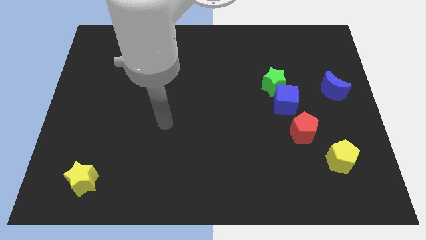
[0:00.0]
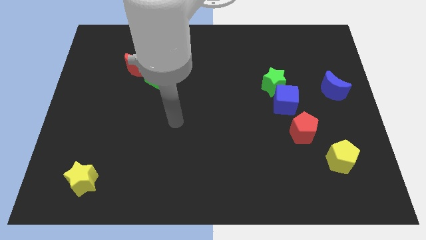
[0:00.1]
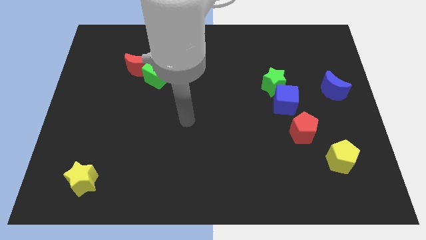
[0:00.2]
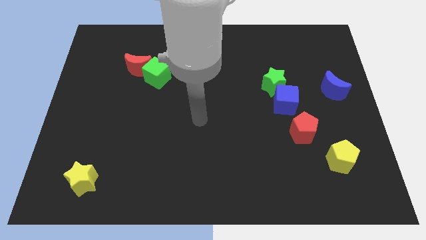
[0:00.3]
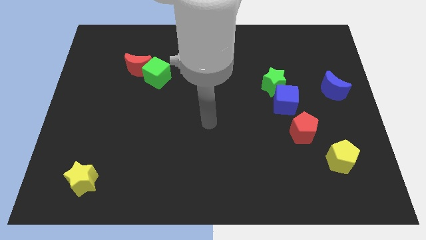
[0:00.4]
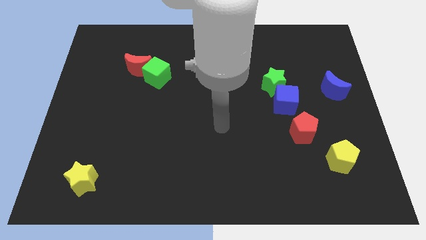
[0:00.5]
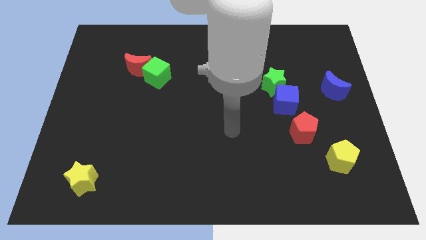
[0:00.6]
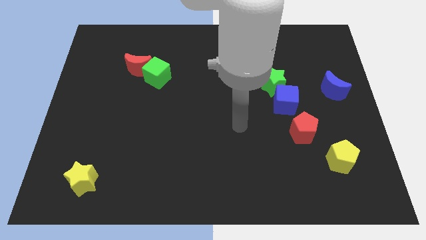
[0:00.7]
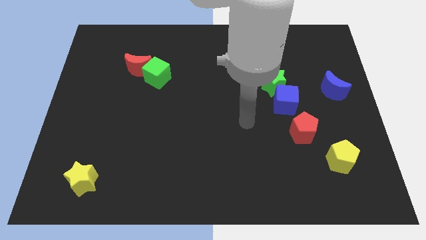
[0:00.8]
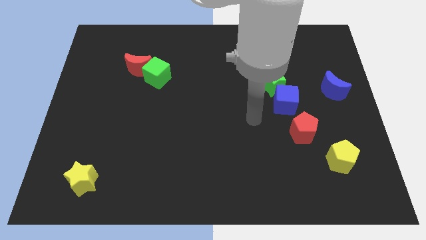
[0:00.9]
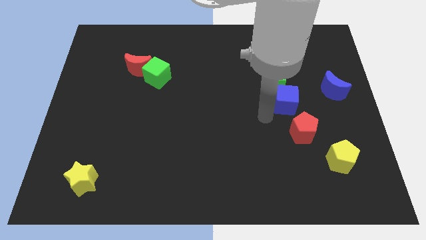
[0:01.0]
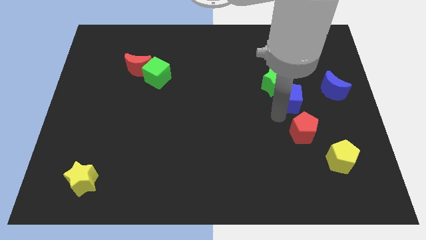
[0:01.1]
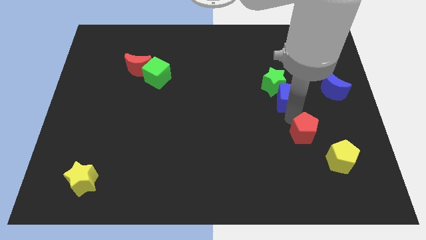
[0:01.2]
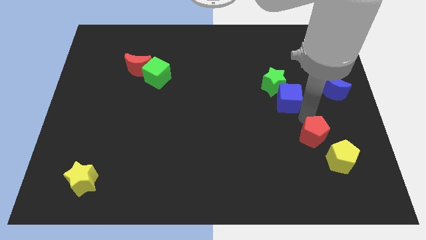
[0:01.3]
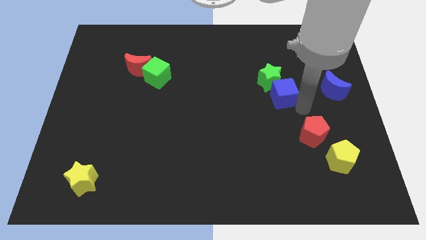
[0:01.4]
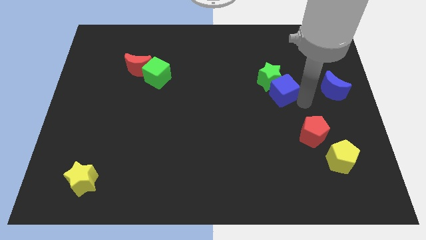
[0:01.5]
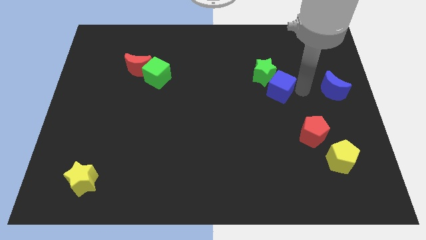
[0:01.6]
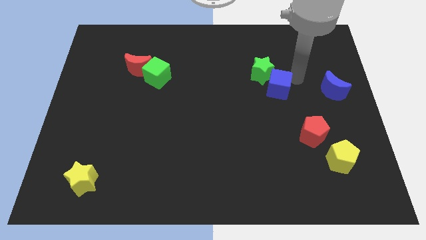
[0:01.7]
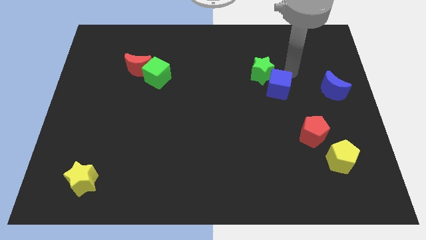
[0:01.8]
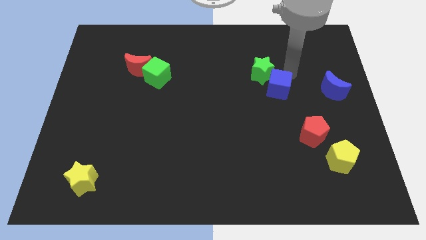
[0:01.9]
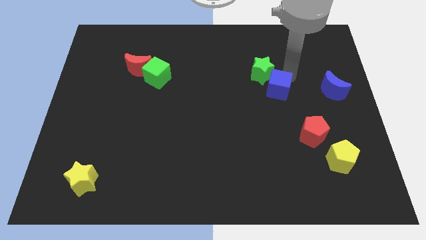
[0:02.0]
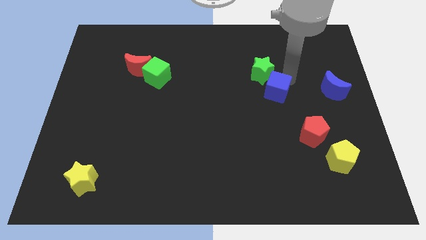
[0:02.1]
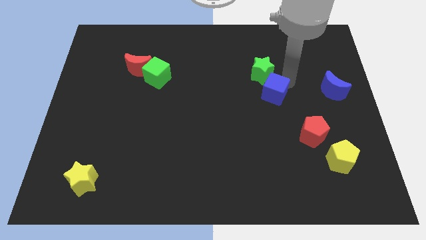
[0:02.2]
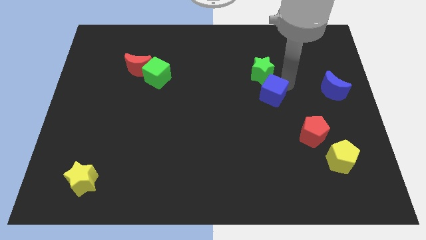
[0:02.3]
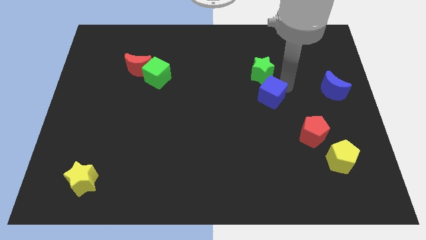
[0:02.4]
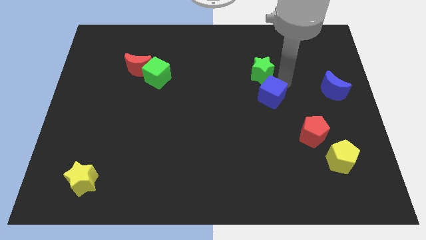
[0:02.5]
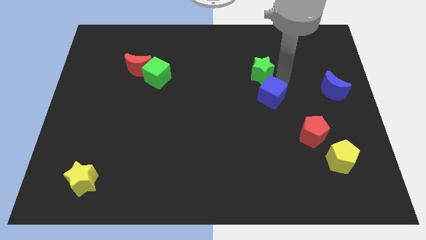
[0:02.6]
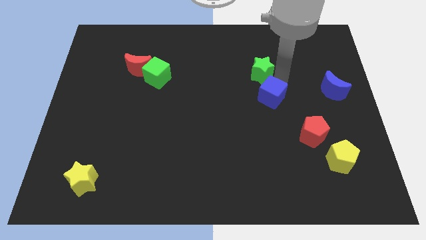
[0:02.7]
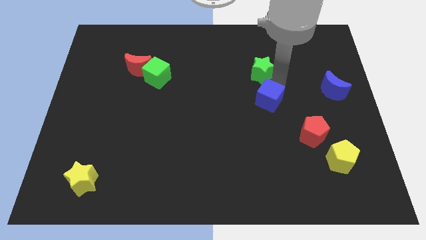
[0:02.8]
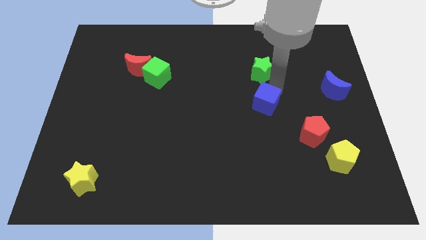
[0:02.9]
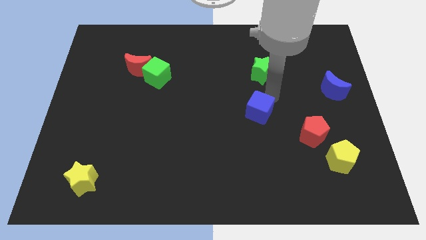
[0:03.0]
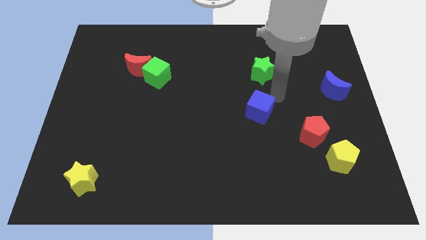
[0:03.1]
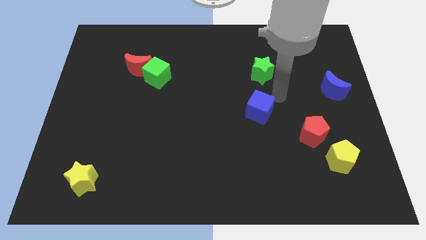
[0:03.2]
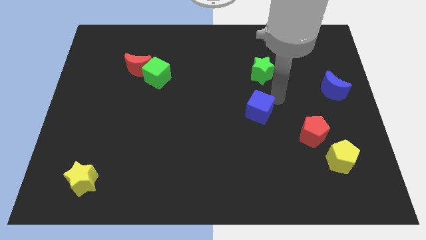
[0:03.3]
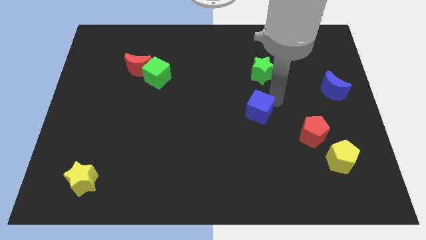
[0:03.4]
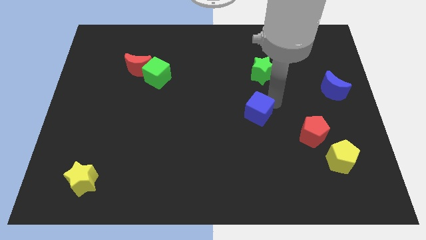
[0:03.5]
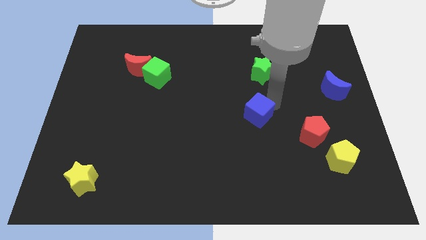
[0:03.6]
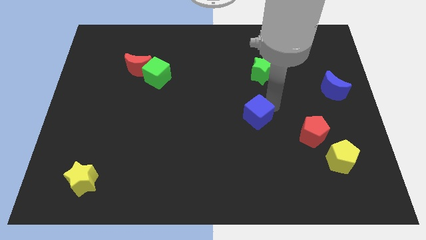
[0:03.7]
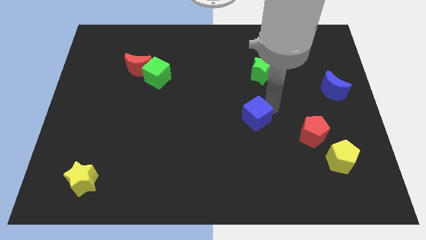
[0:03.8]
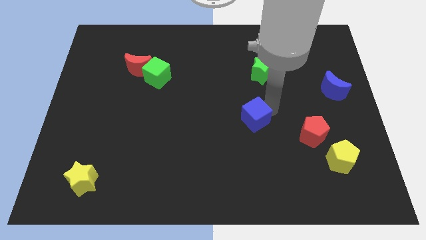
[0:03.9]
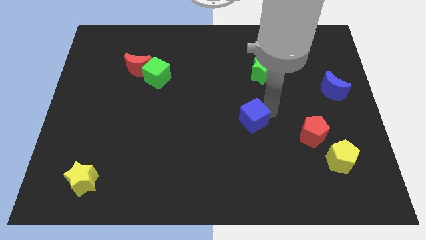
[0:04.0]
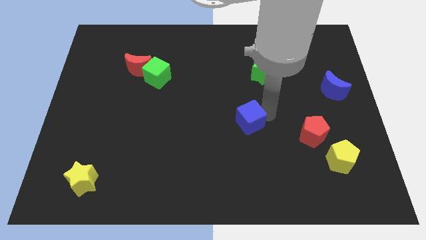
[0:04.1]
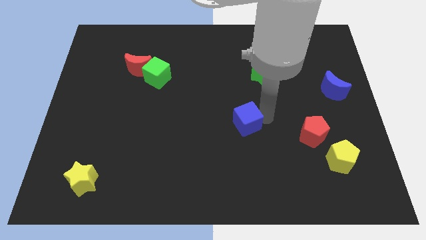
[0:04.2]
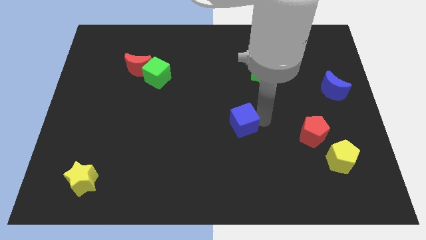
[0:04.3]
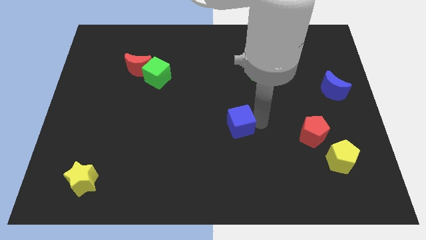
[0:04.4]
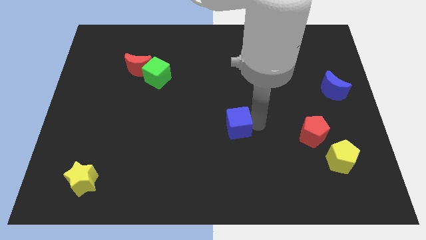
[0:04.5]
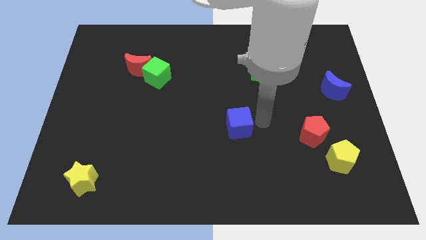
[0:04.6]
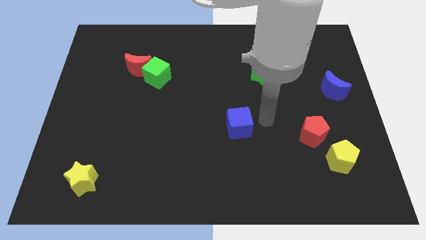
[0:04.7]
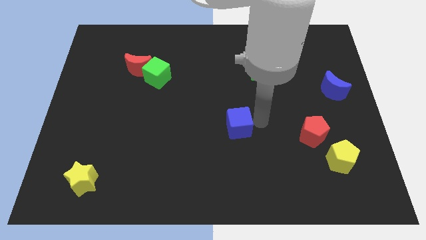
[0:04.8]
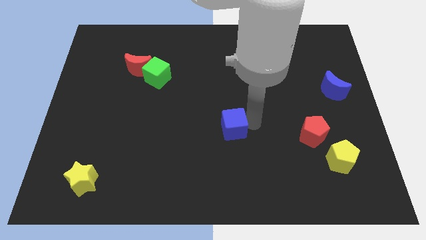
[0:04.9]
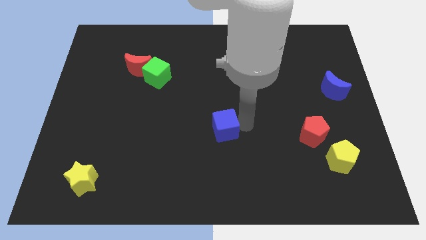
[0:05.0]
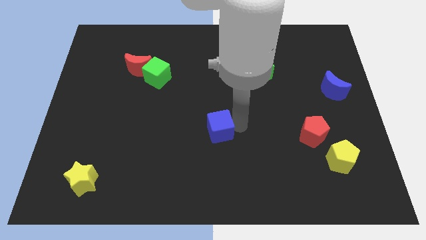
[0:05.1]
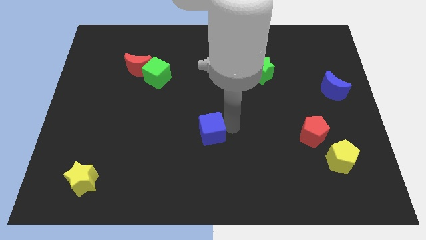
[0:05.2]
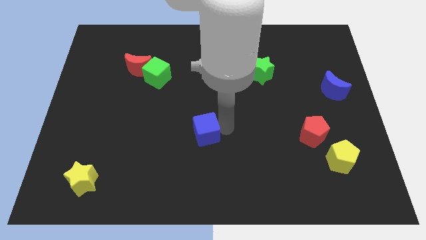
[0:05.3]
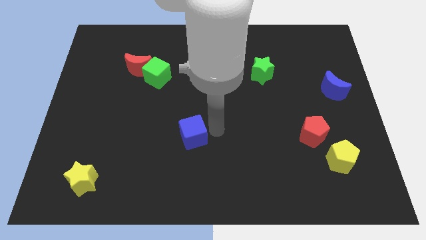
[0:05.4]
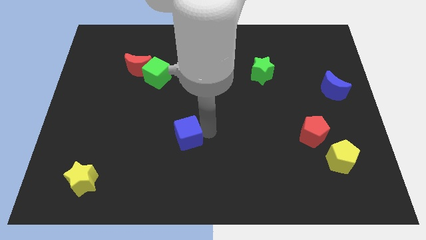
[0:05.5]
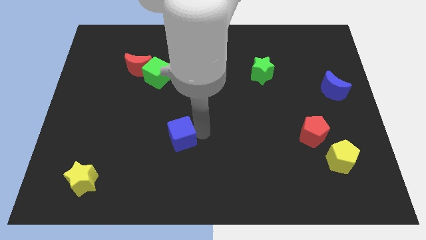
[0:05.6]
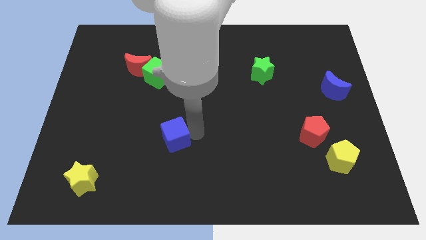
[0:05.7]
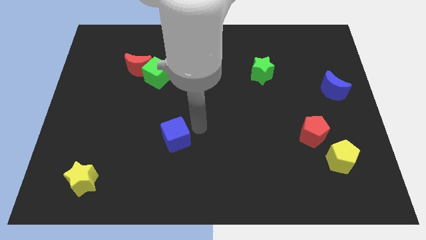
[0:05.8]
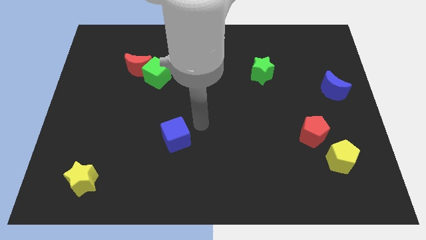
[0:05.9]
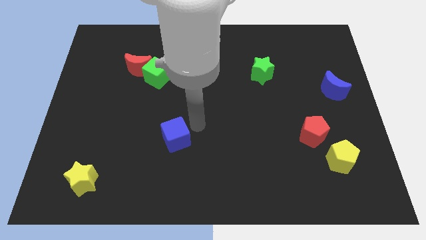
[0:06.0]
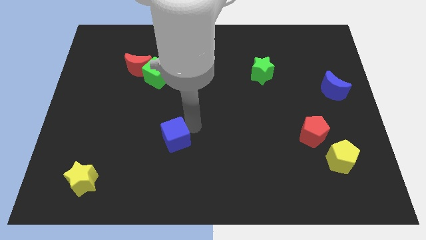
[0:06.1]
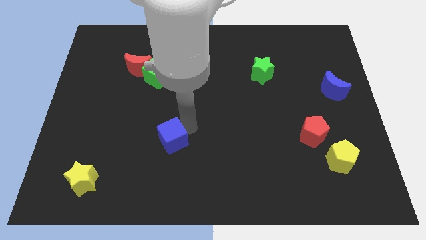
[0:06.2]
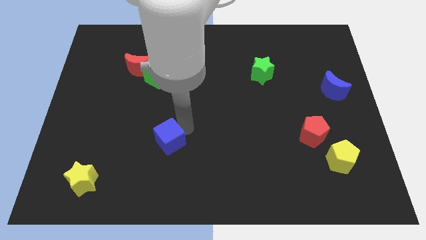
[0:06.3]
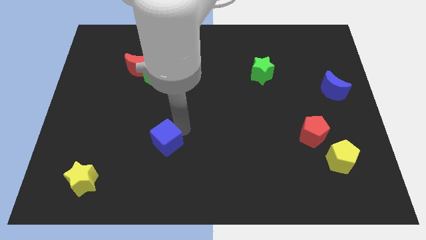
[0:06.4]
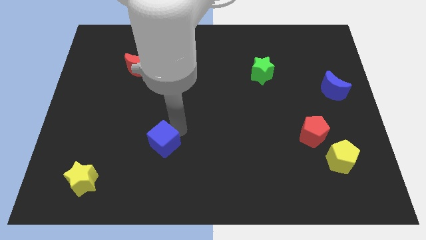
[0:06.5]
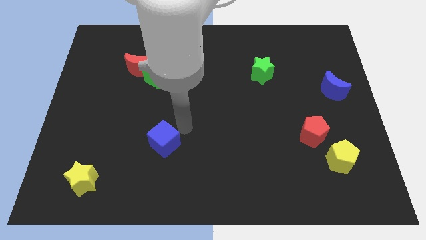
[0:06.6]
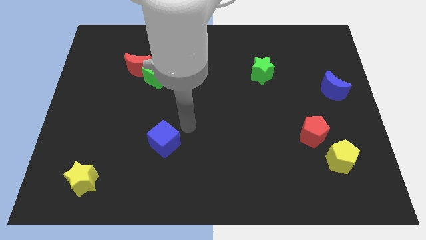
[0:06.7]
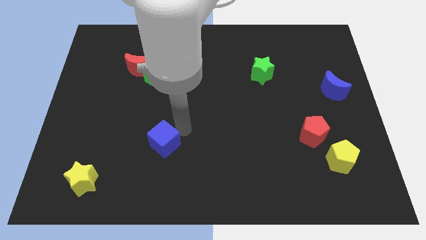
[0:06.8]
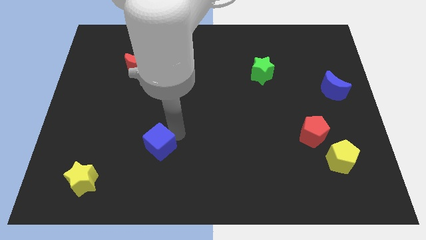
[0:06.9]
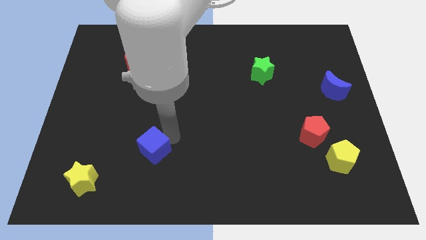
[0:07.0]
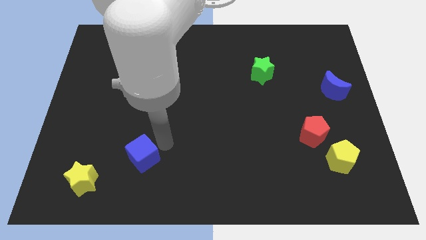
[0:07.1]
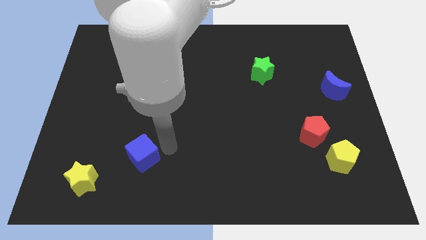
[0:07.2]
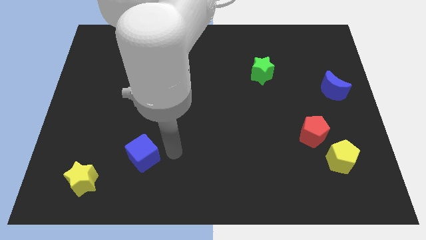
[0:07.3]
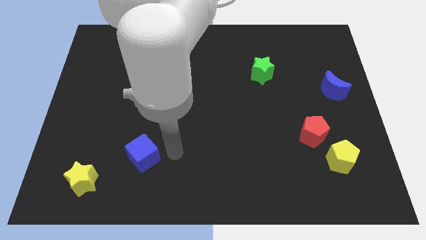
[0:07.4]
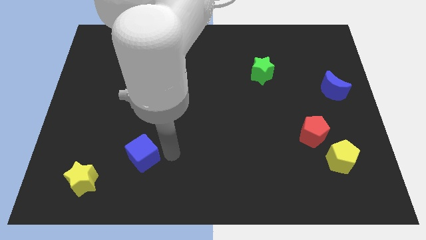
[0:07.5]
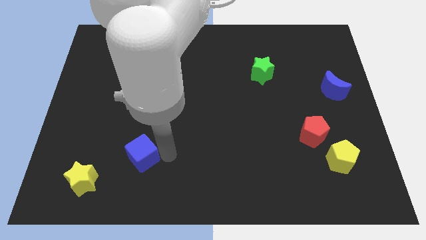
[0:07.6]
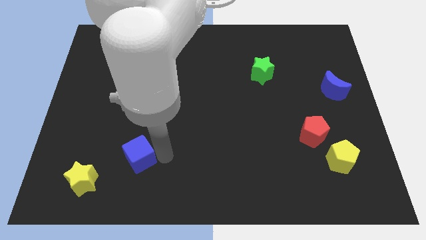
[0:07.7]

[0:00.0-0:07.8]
move the blue cube to the top right of the yellow star
